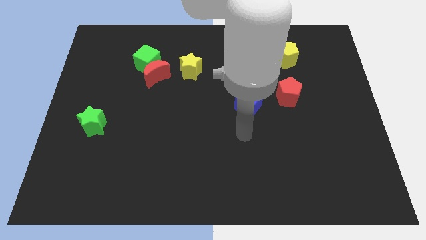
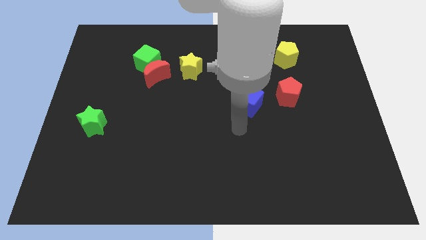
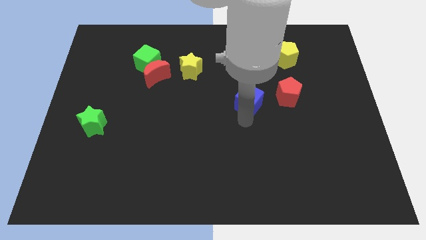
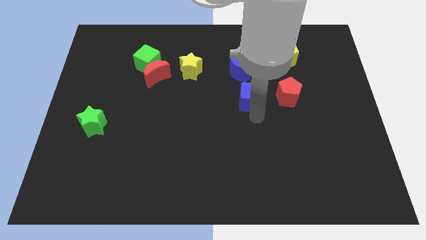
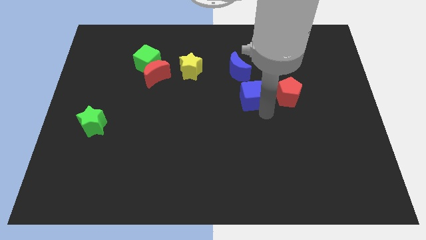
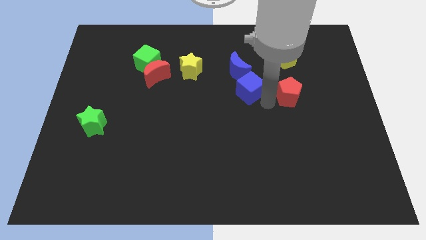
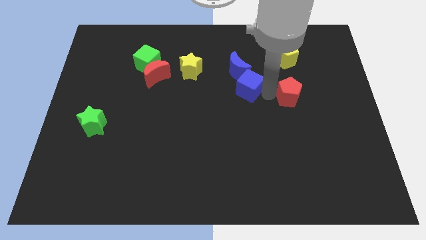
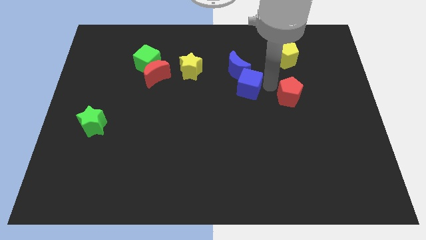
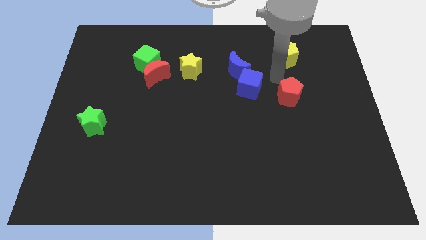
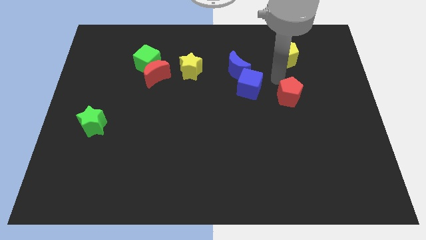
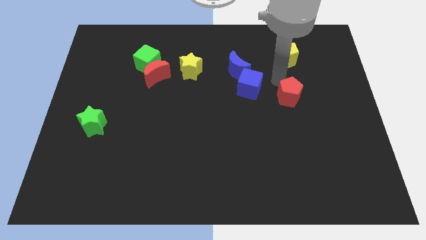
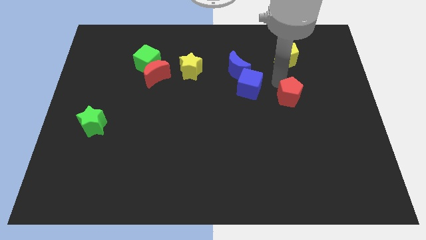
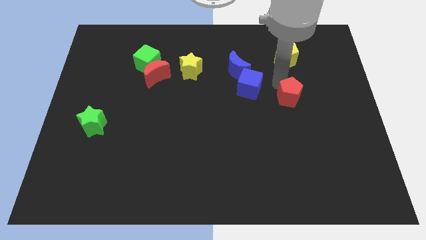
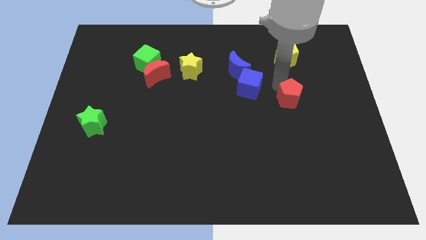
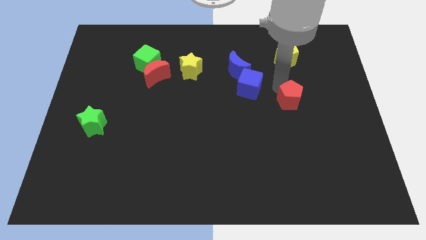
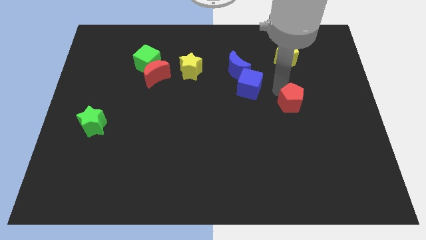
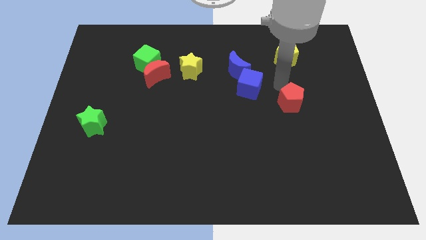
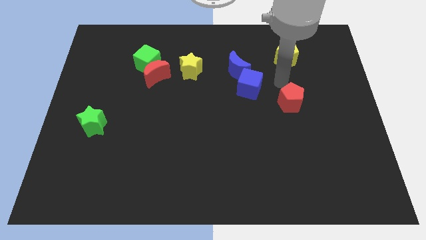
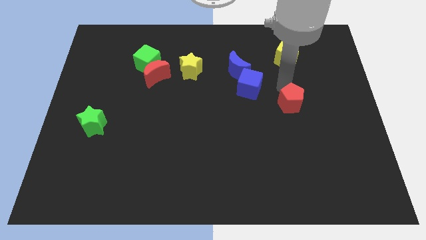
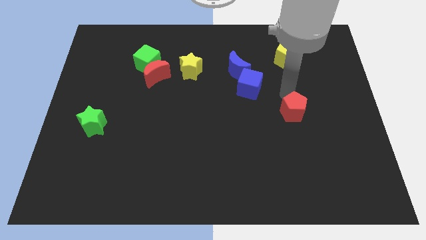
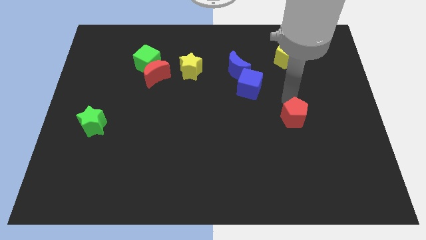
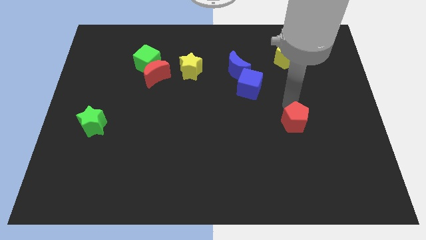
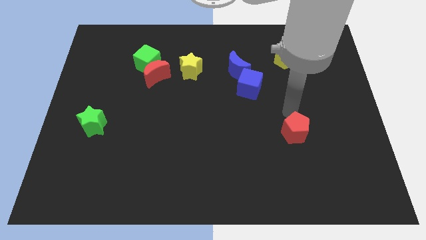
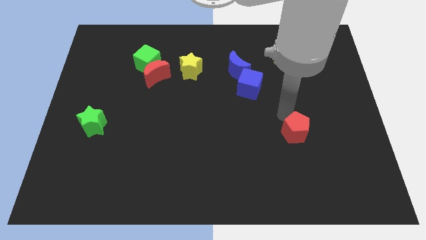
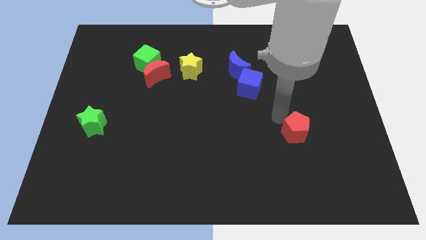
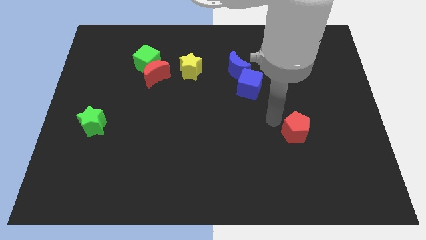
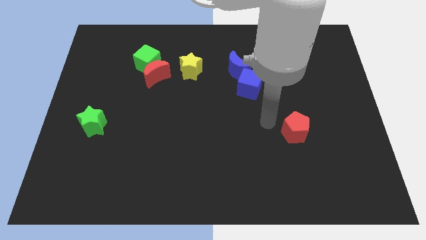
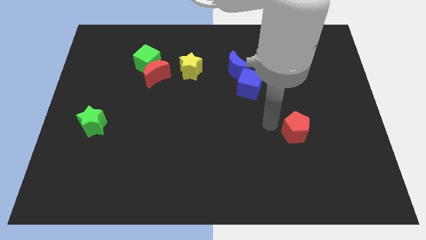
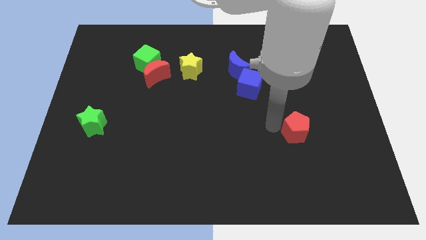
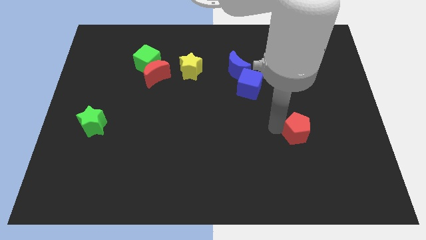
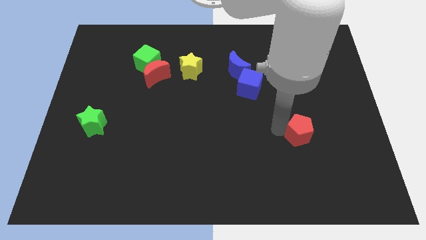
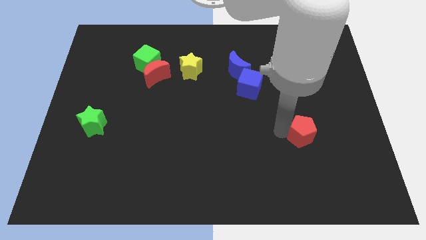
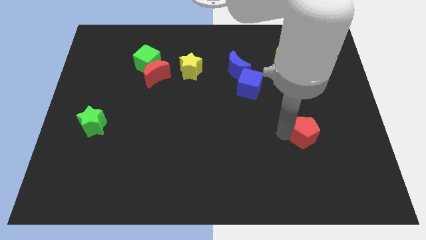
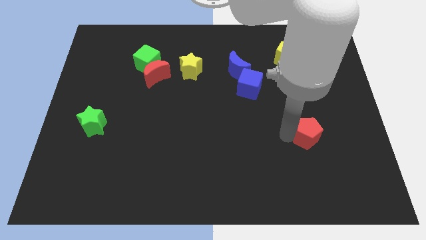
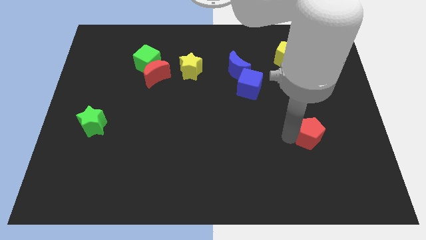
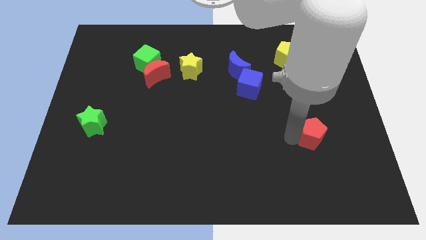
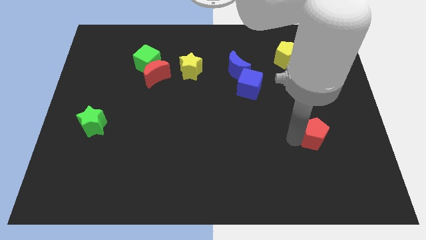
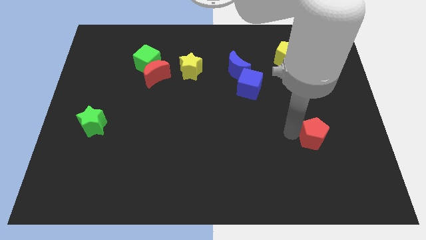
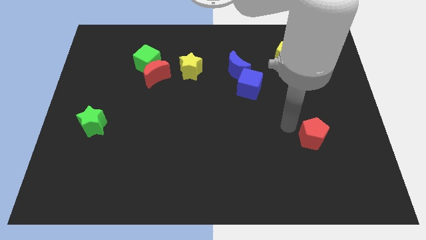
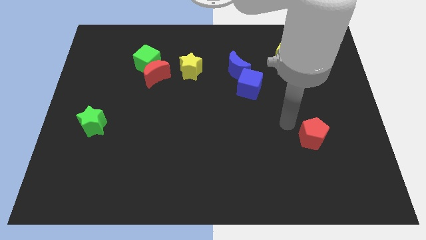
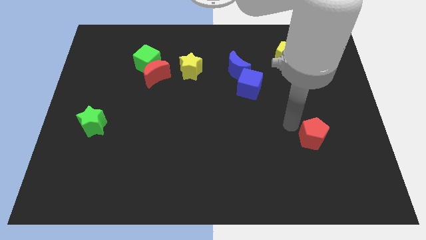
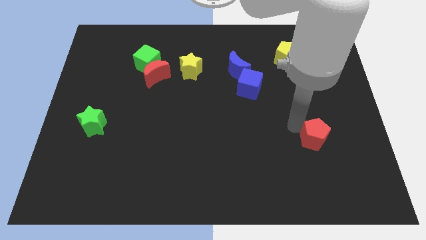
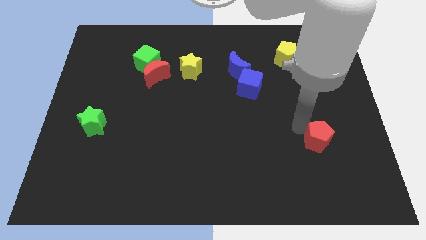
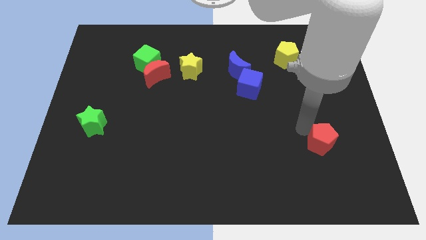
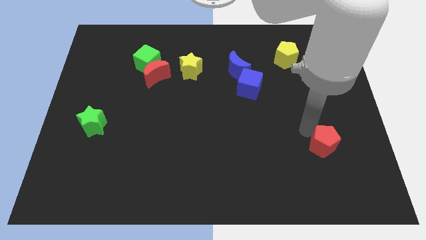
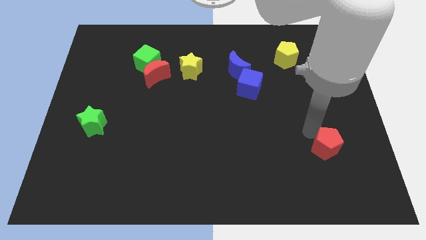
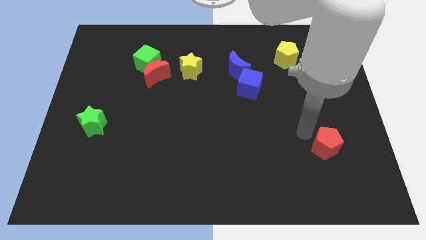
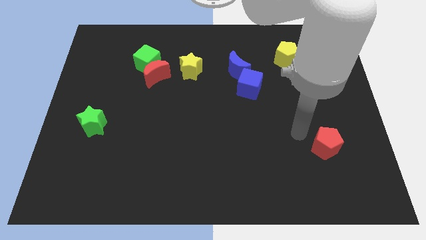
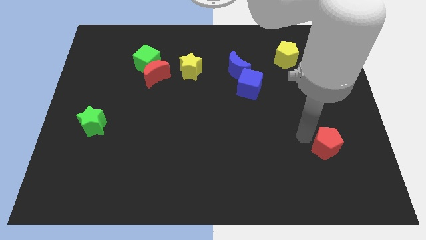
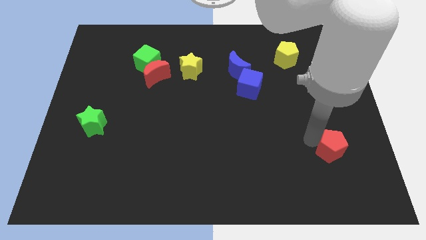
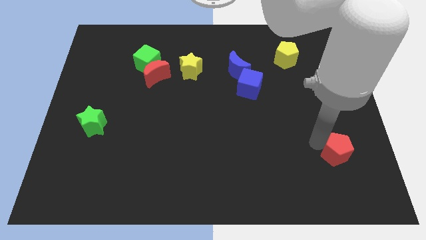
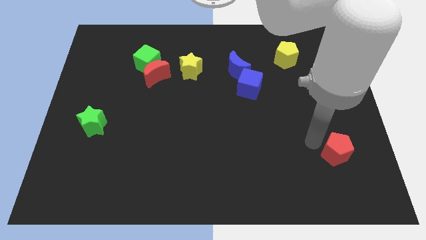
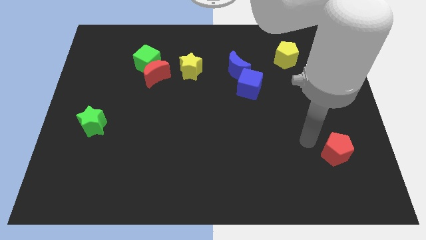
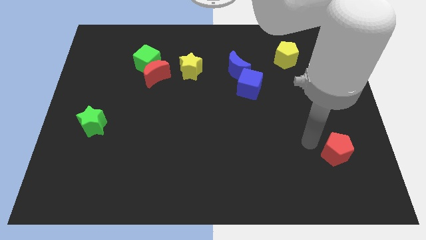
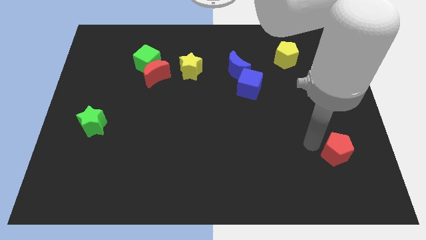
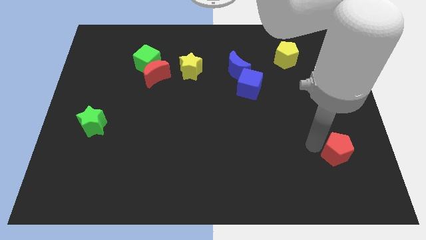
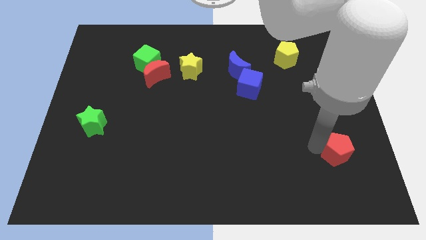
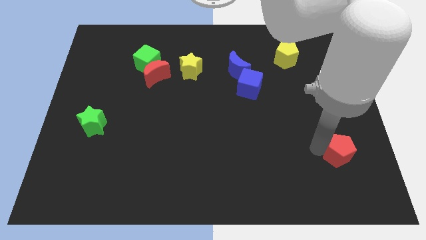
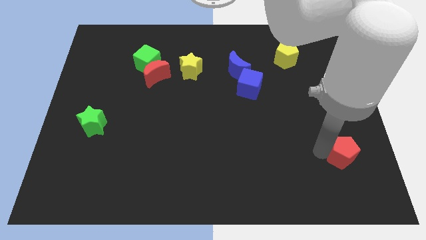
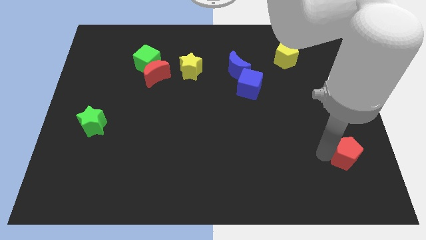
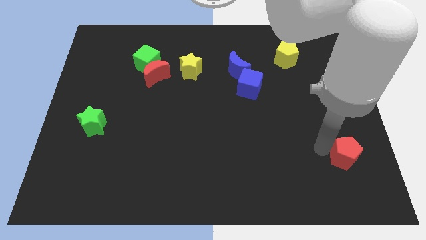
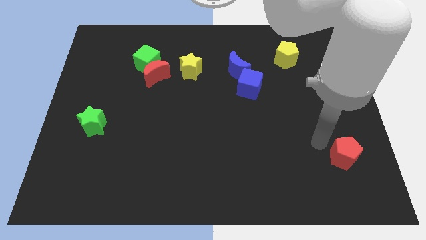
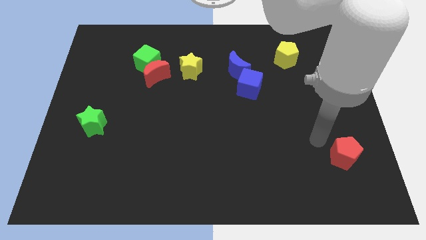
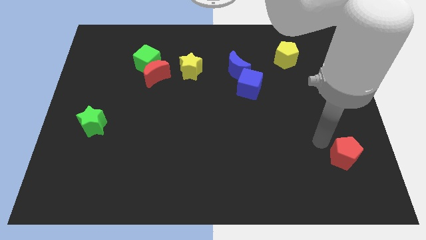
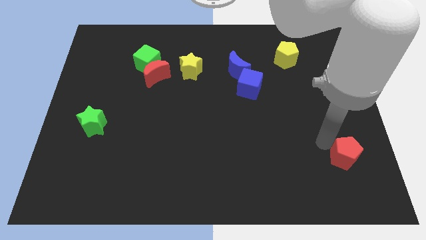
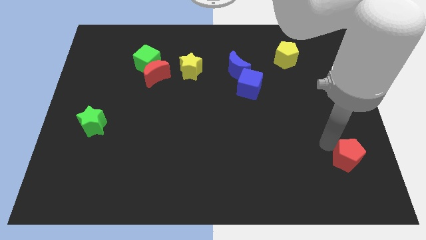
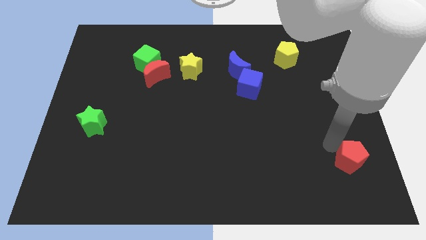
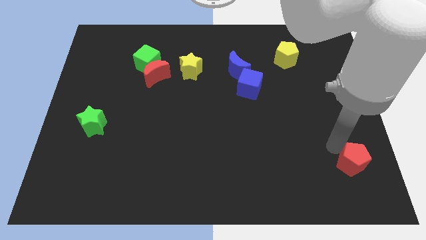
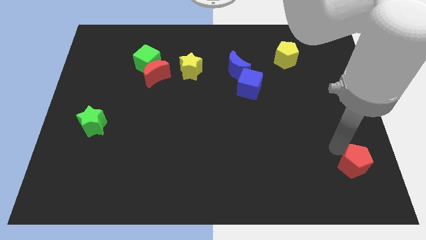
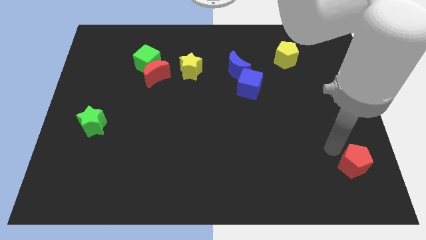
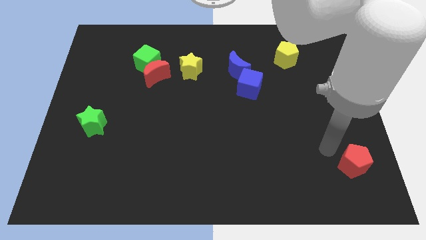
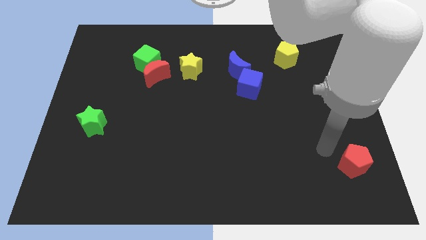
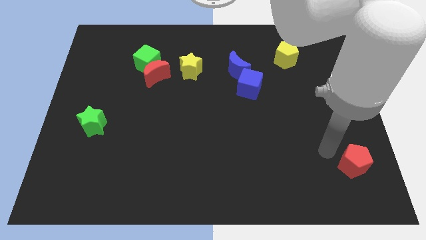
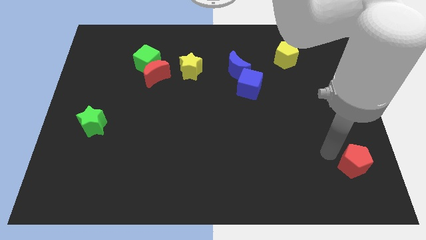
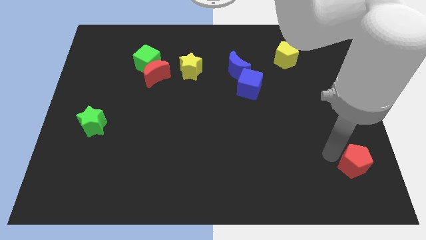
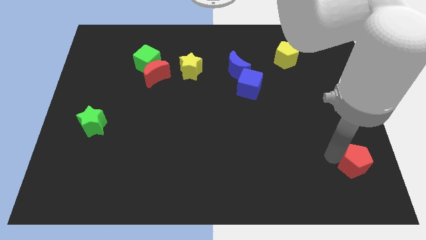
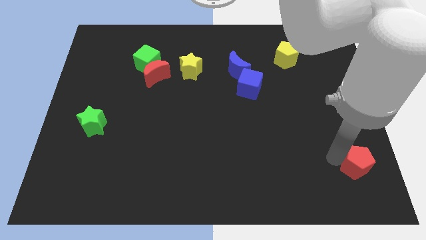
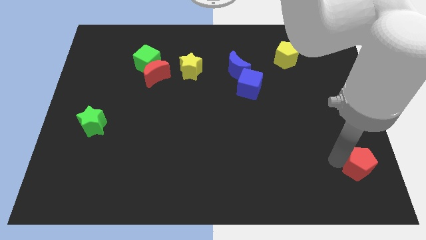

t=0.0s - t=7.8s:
push the red pentagon to the bottom right of the board
